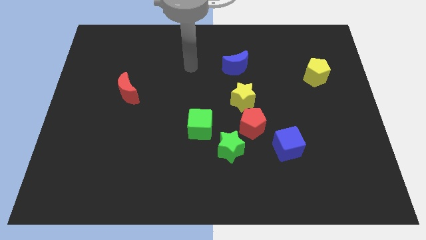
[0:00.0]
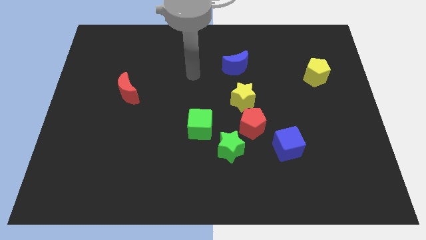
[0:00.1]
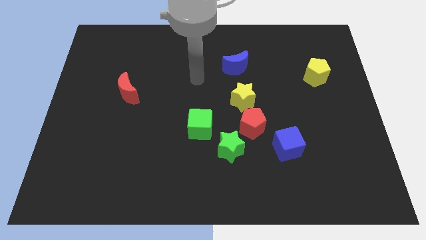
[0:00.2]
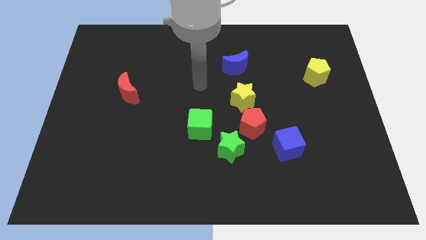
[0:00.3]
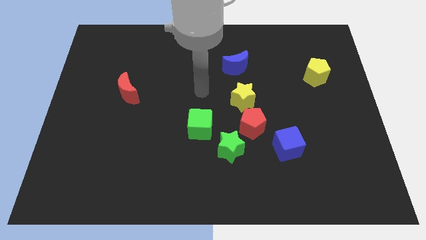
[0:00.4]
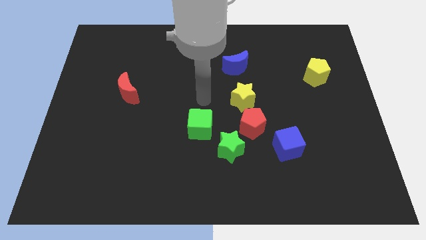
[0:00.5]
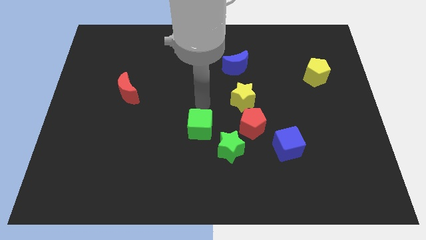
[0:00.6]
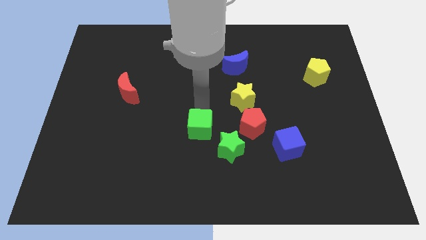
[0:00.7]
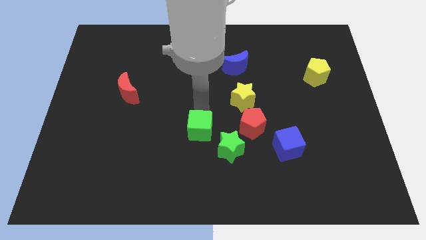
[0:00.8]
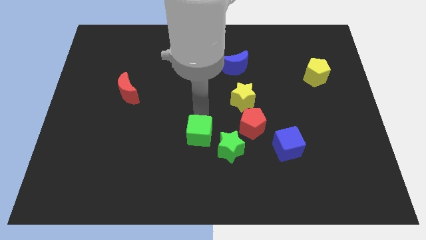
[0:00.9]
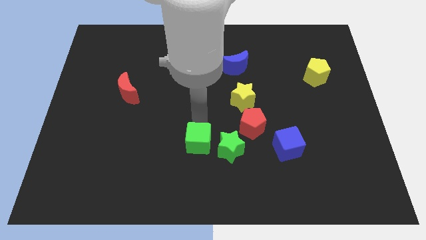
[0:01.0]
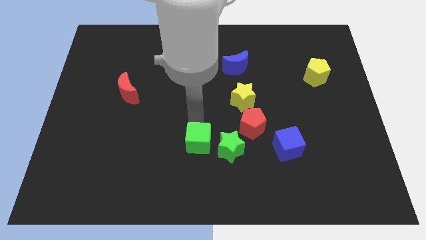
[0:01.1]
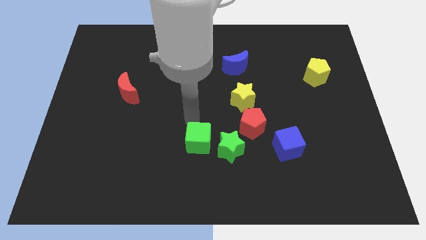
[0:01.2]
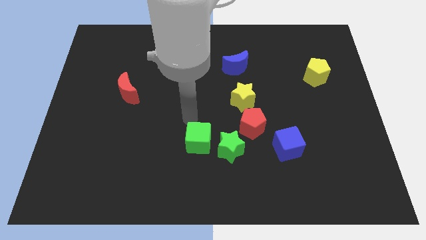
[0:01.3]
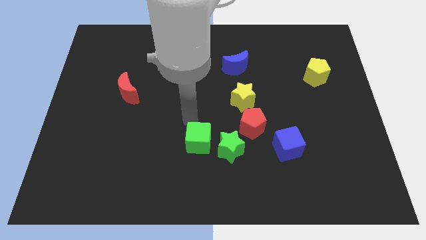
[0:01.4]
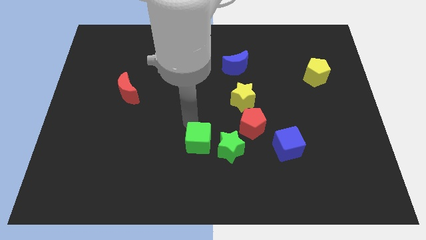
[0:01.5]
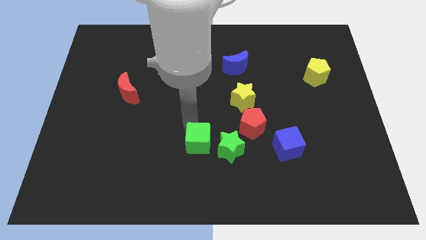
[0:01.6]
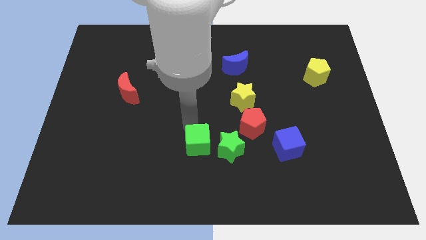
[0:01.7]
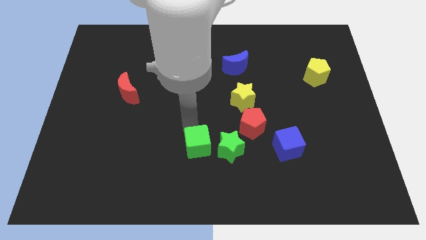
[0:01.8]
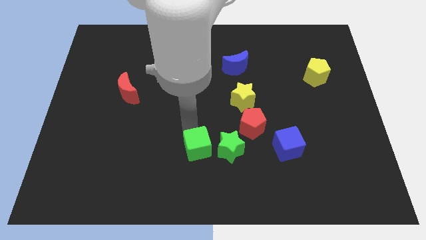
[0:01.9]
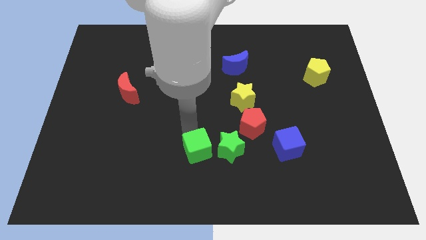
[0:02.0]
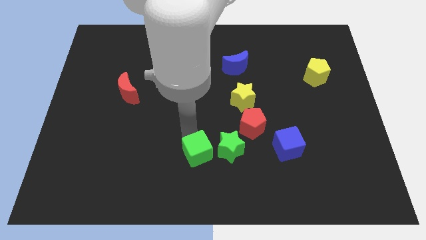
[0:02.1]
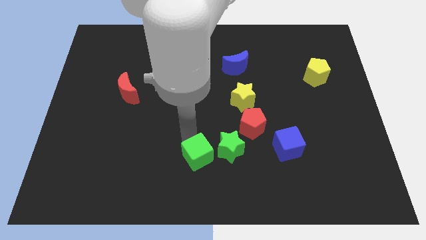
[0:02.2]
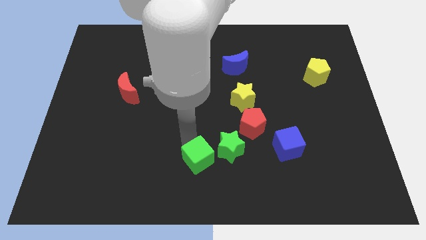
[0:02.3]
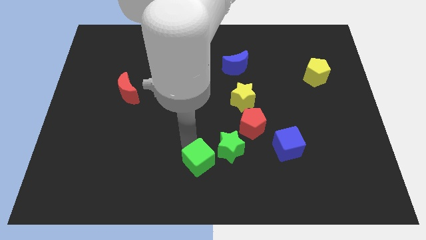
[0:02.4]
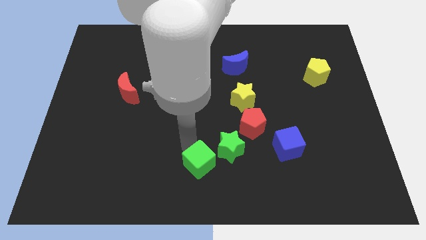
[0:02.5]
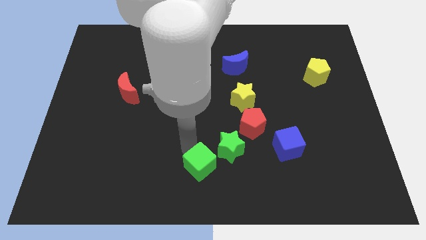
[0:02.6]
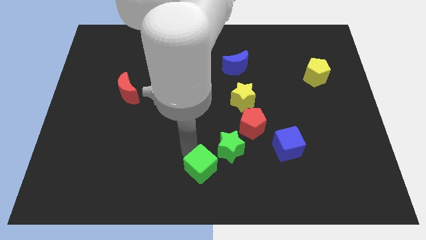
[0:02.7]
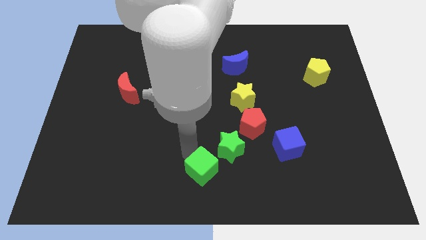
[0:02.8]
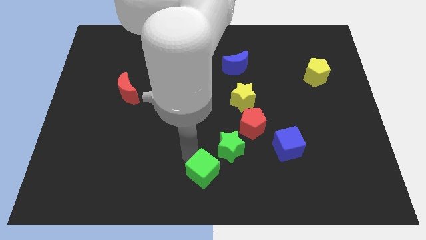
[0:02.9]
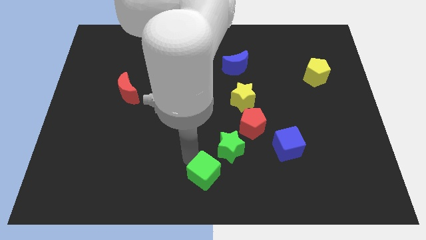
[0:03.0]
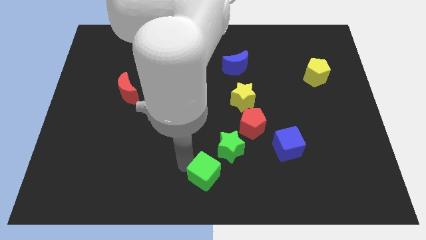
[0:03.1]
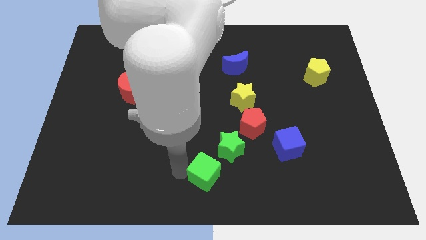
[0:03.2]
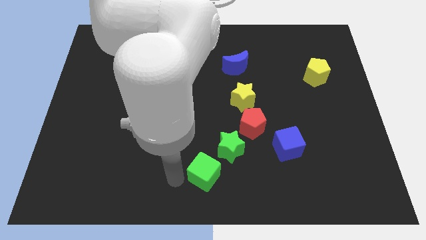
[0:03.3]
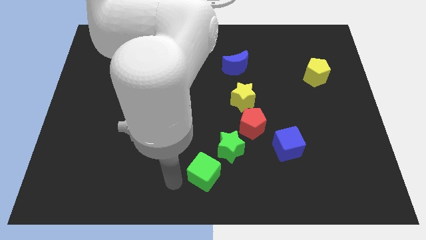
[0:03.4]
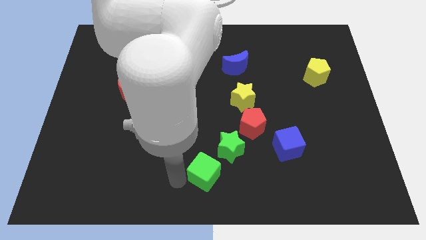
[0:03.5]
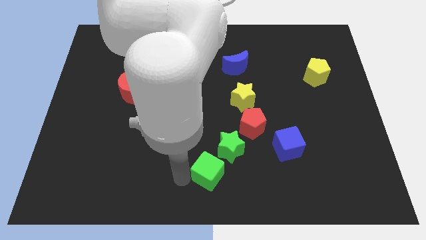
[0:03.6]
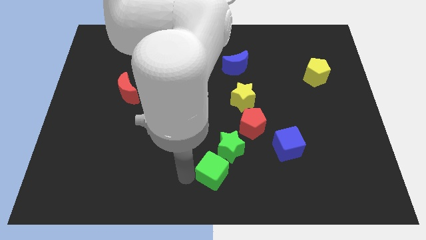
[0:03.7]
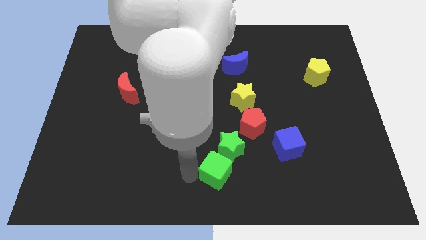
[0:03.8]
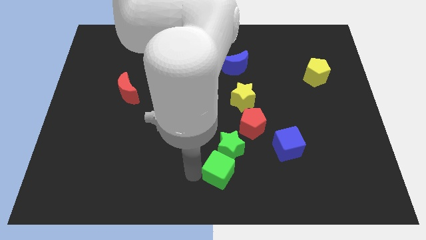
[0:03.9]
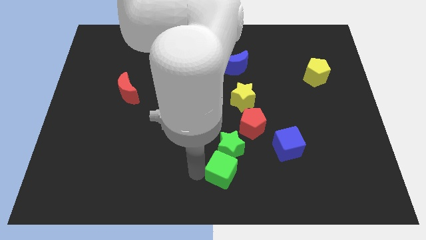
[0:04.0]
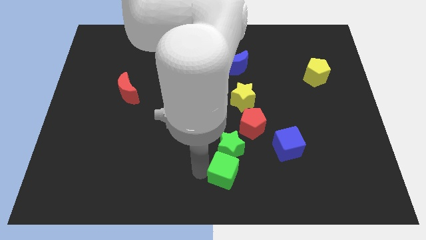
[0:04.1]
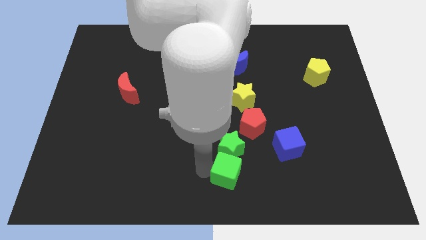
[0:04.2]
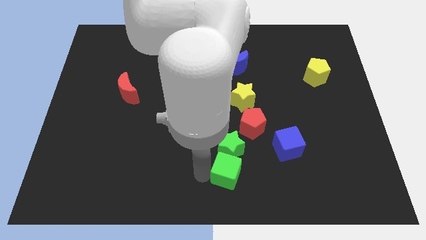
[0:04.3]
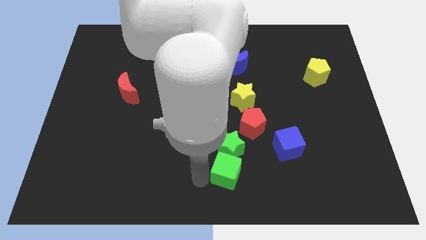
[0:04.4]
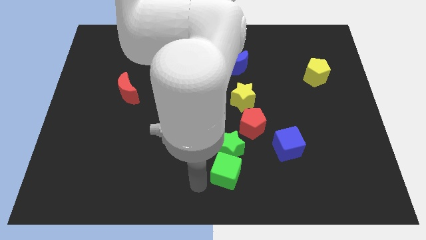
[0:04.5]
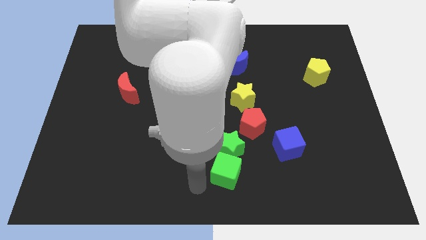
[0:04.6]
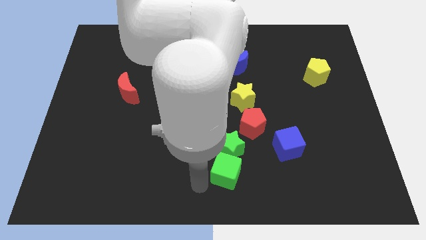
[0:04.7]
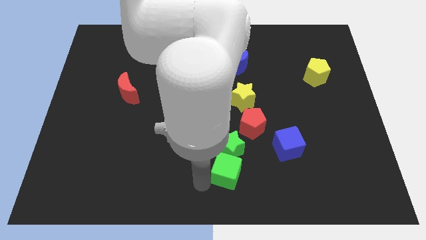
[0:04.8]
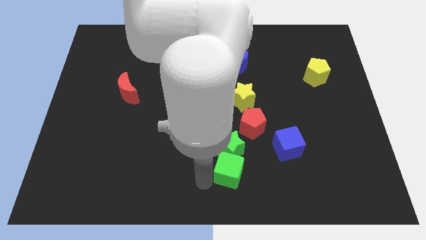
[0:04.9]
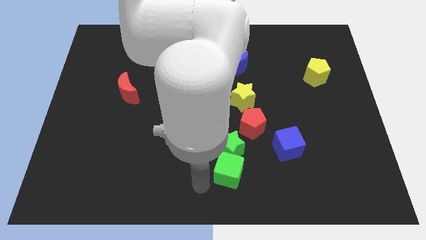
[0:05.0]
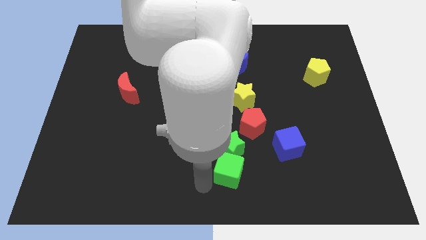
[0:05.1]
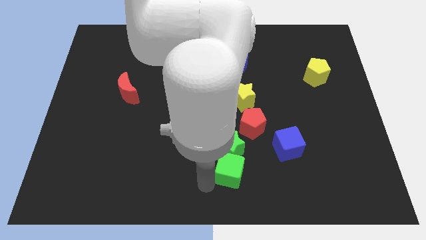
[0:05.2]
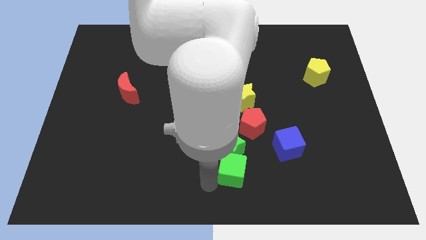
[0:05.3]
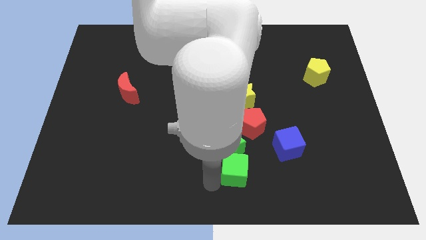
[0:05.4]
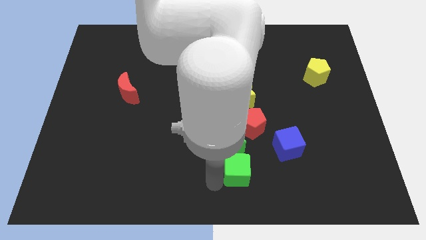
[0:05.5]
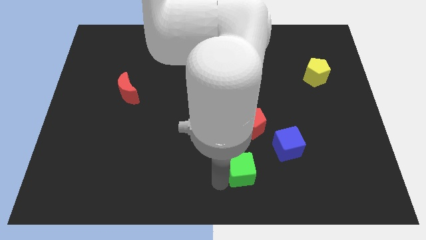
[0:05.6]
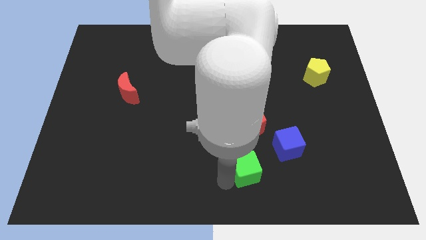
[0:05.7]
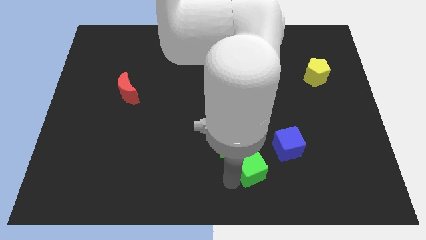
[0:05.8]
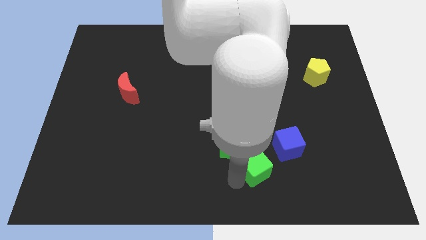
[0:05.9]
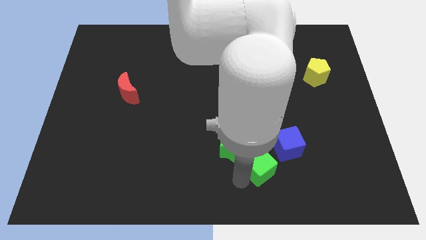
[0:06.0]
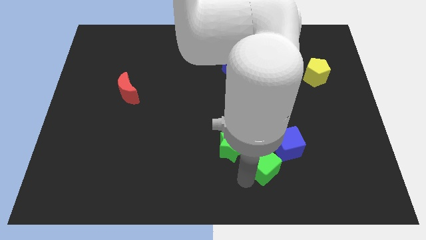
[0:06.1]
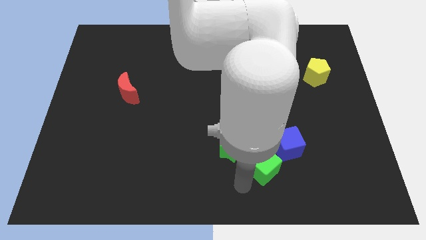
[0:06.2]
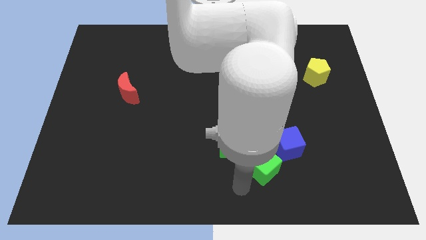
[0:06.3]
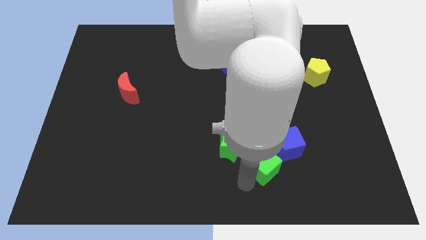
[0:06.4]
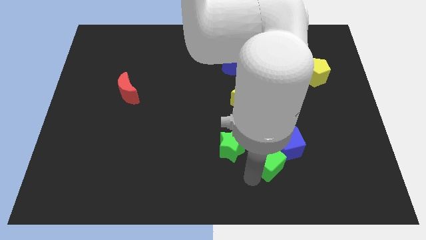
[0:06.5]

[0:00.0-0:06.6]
put the green cube to the blue cube

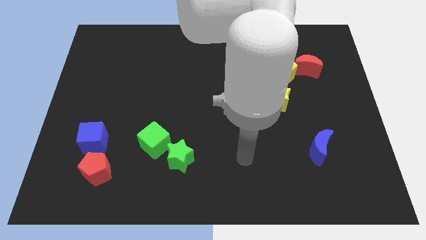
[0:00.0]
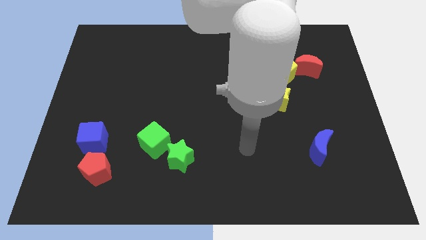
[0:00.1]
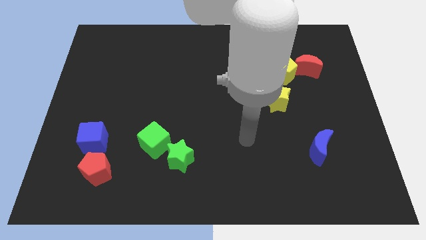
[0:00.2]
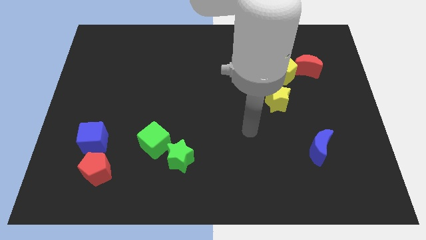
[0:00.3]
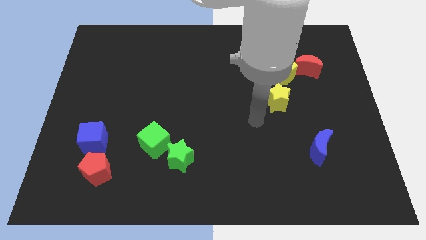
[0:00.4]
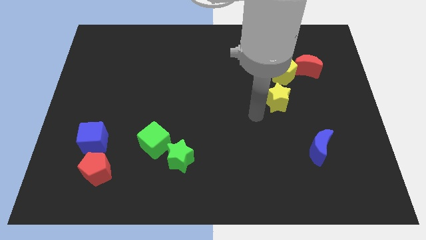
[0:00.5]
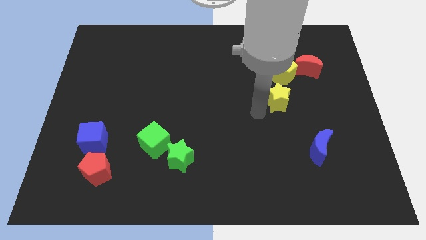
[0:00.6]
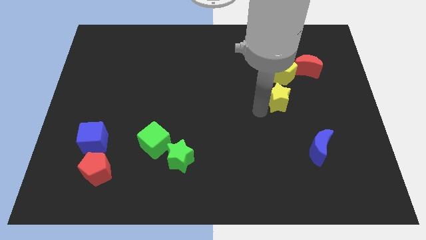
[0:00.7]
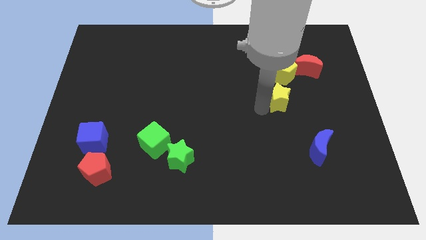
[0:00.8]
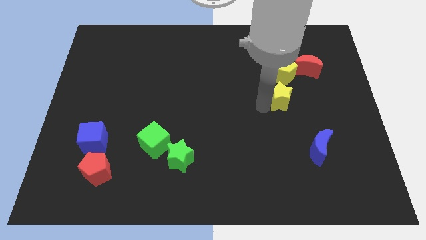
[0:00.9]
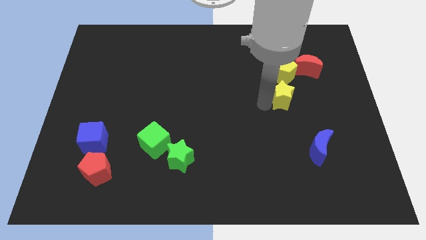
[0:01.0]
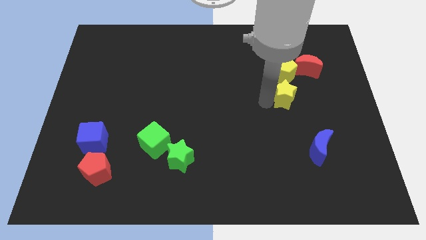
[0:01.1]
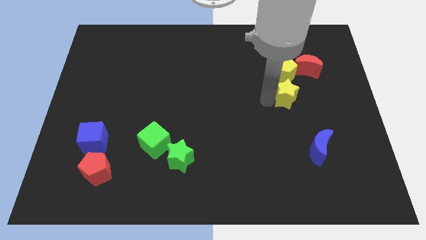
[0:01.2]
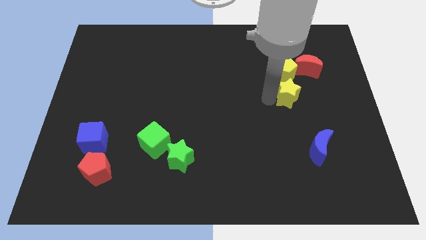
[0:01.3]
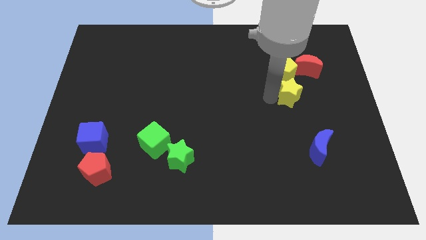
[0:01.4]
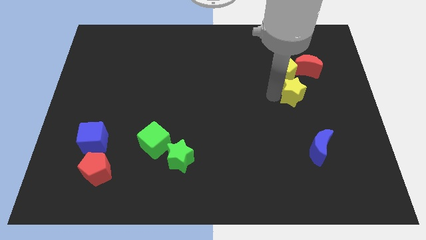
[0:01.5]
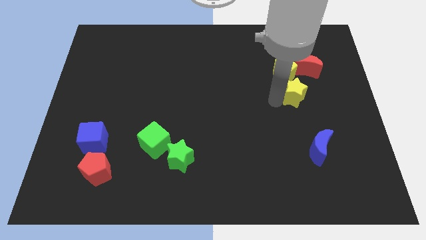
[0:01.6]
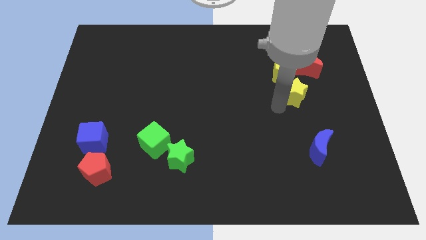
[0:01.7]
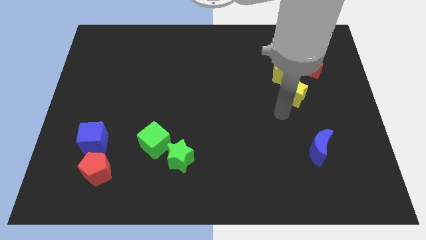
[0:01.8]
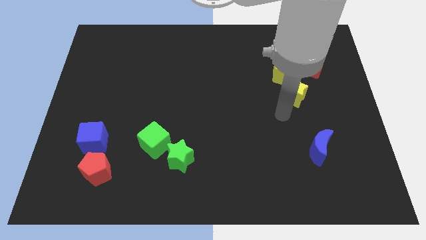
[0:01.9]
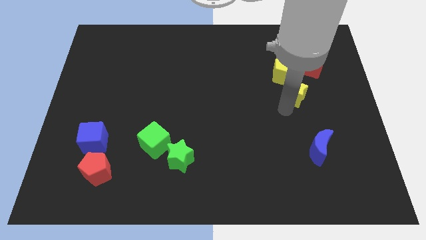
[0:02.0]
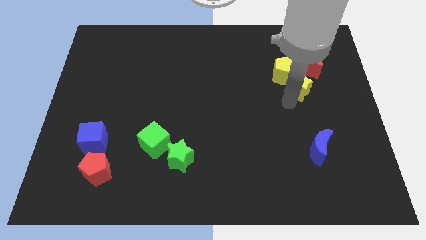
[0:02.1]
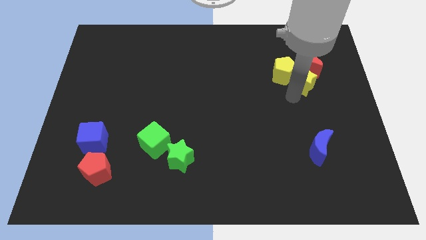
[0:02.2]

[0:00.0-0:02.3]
put the yellow star next to the red moon
